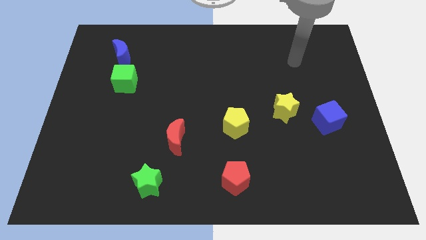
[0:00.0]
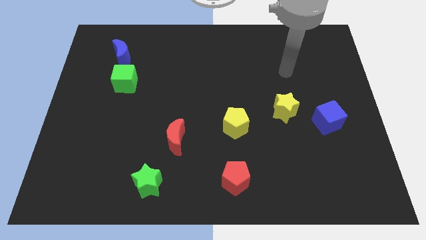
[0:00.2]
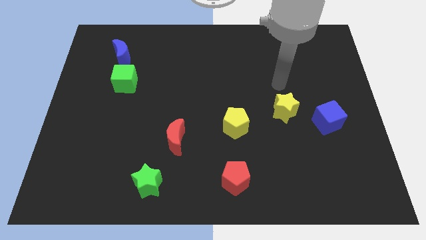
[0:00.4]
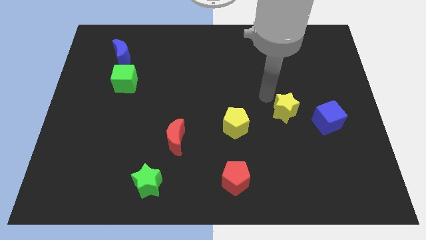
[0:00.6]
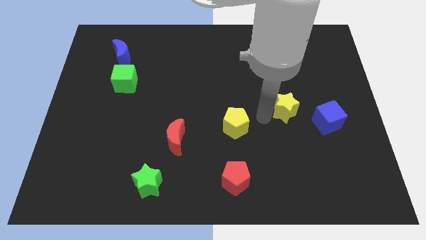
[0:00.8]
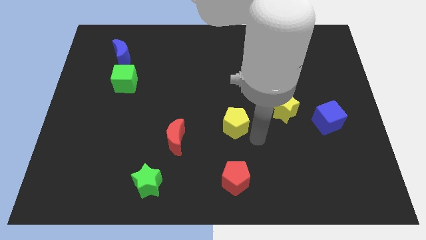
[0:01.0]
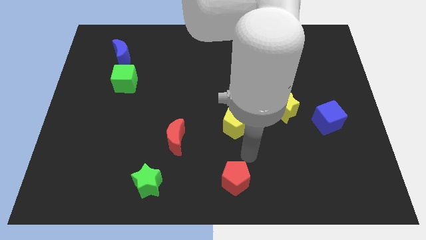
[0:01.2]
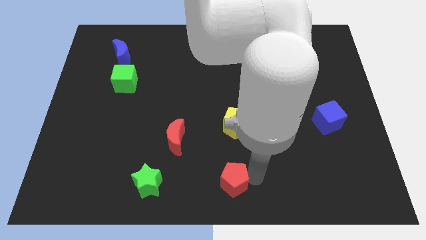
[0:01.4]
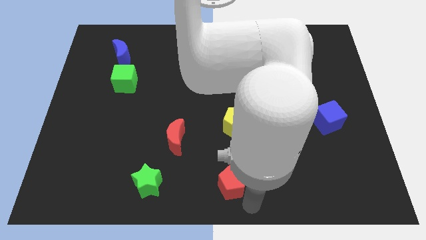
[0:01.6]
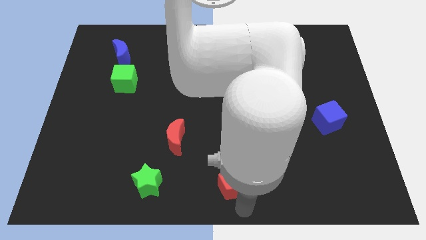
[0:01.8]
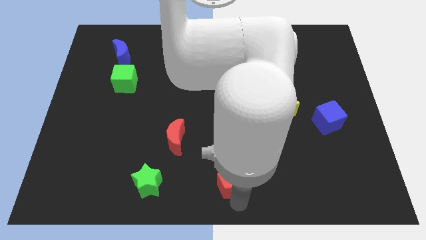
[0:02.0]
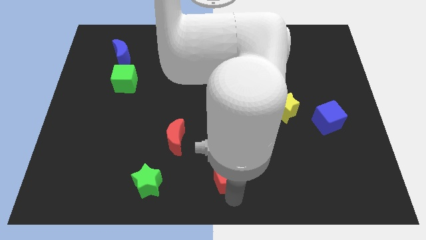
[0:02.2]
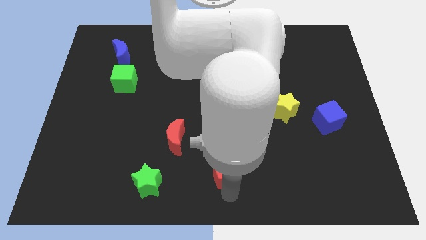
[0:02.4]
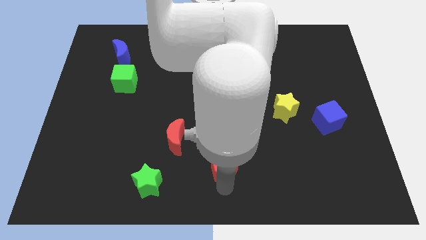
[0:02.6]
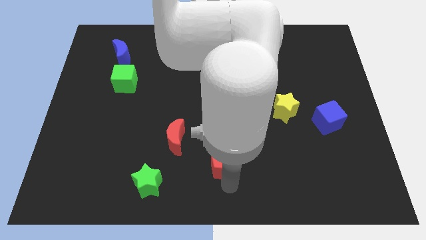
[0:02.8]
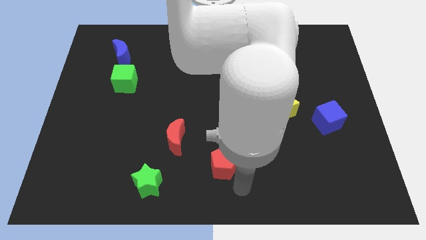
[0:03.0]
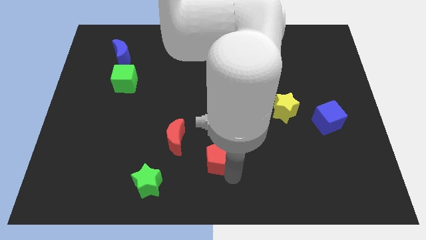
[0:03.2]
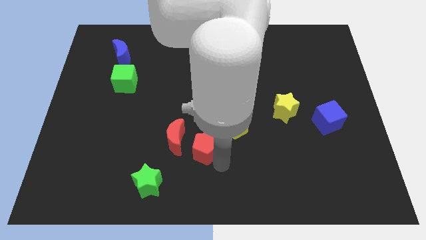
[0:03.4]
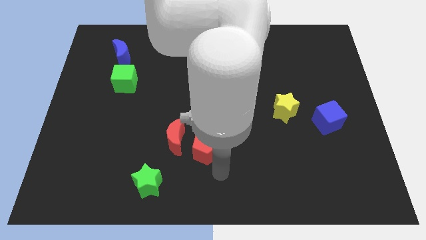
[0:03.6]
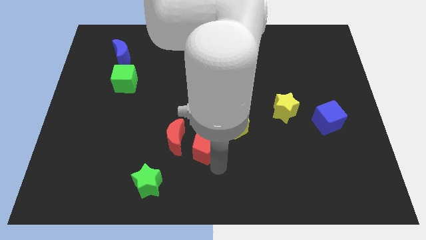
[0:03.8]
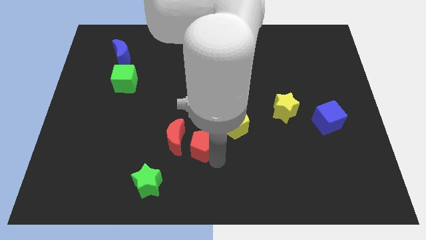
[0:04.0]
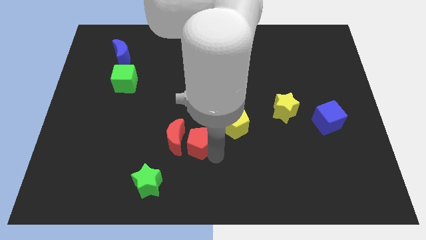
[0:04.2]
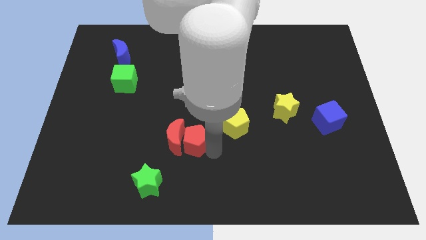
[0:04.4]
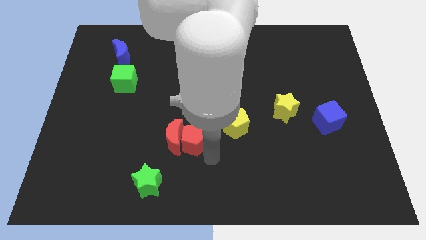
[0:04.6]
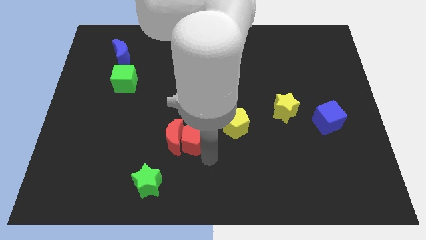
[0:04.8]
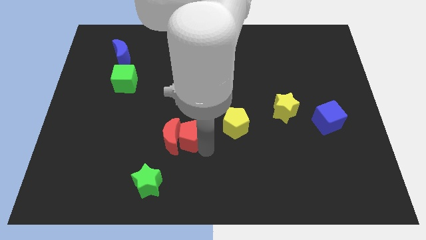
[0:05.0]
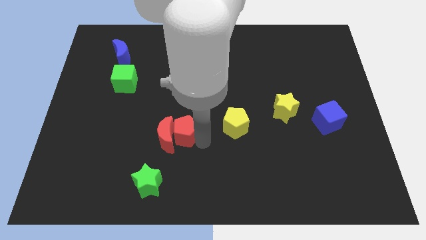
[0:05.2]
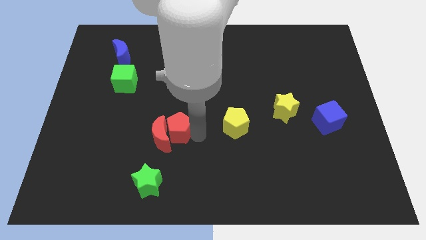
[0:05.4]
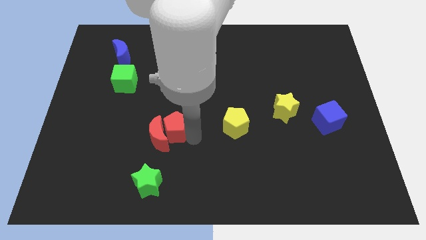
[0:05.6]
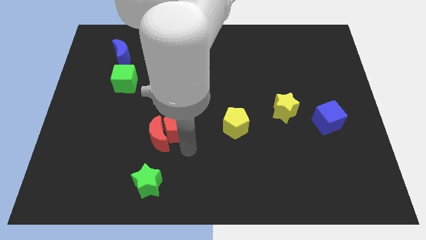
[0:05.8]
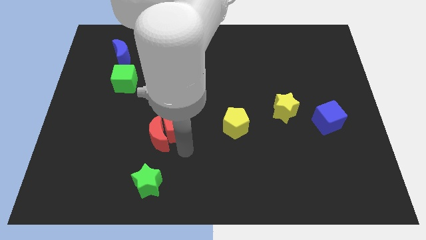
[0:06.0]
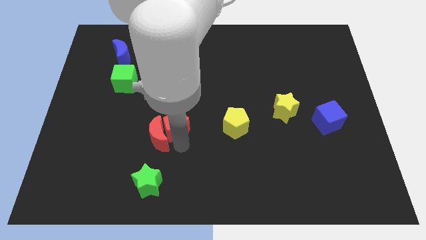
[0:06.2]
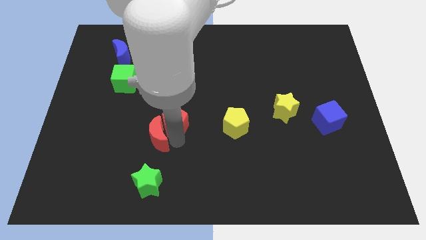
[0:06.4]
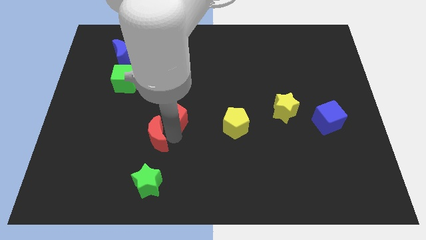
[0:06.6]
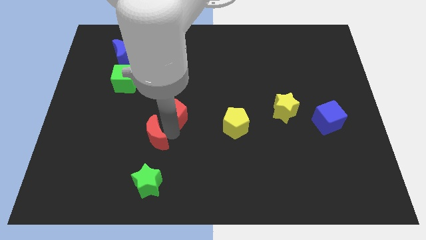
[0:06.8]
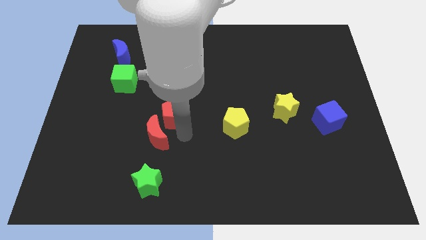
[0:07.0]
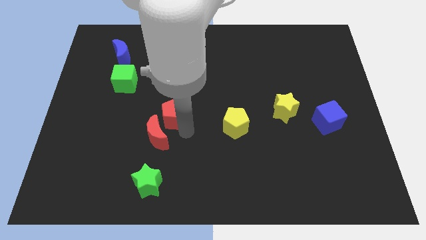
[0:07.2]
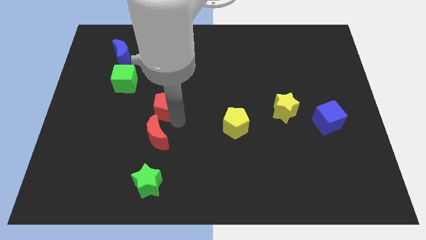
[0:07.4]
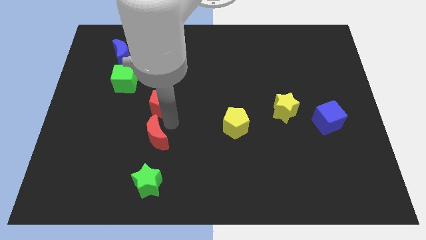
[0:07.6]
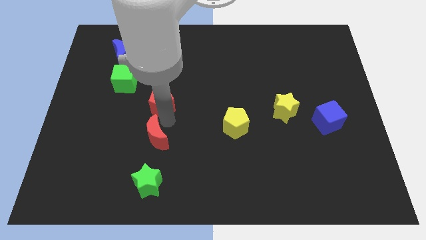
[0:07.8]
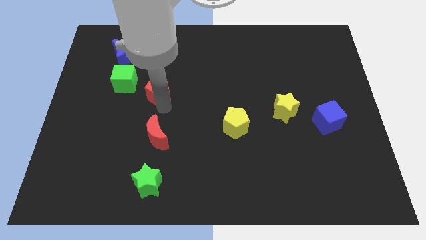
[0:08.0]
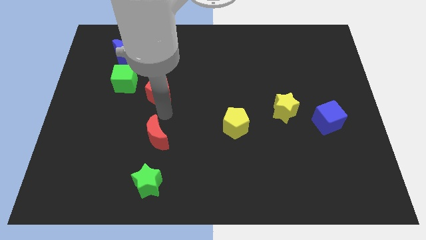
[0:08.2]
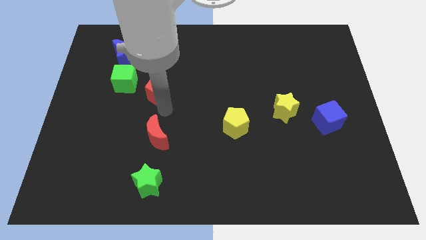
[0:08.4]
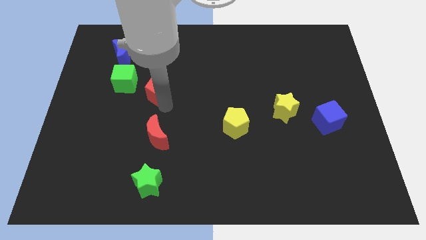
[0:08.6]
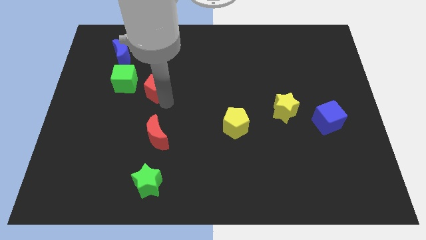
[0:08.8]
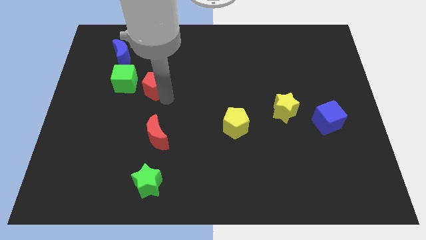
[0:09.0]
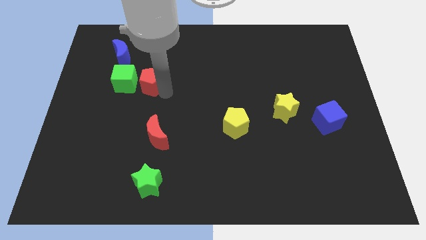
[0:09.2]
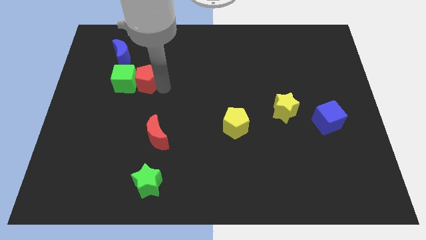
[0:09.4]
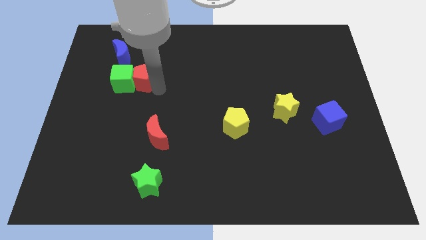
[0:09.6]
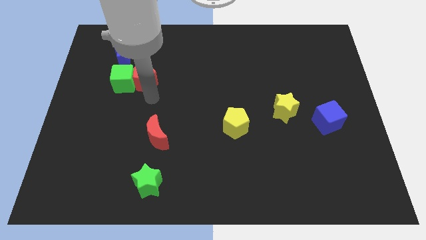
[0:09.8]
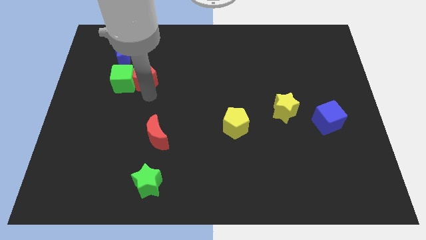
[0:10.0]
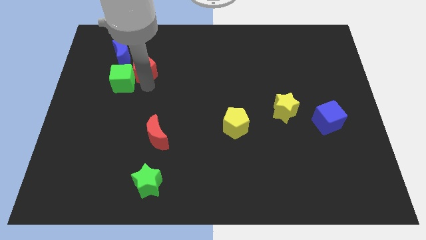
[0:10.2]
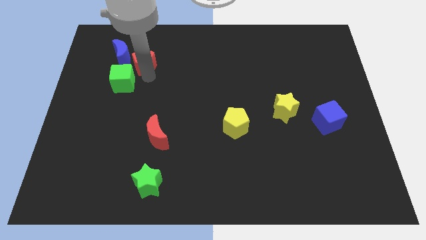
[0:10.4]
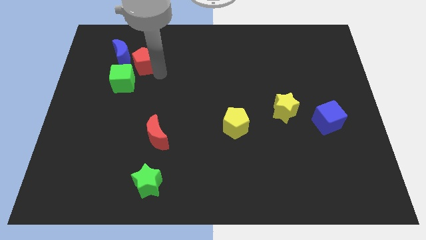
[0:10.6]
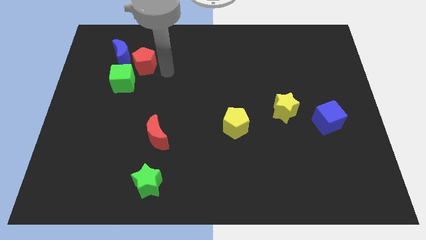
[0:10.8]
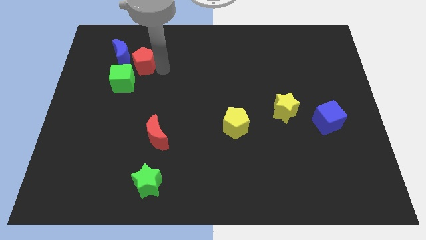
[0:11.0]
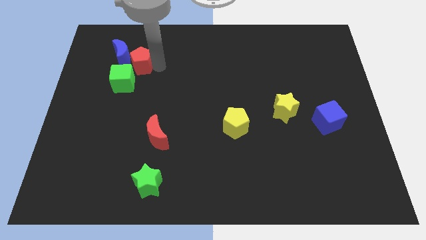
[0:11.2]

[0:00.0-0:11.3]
put the red pentagon towards the blue moon
